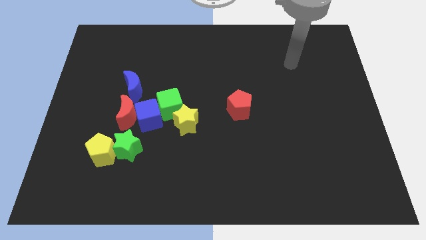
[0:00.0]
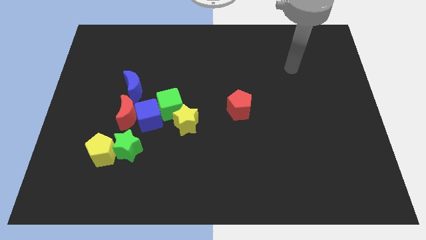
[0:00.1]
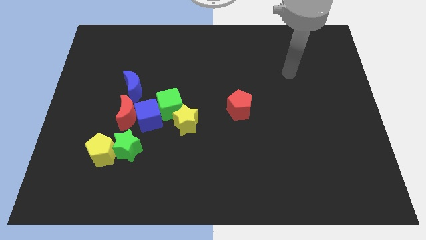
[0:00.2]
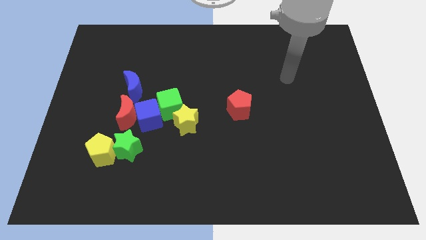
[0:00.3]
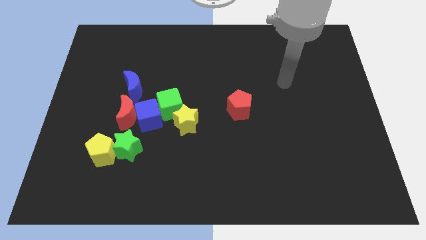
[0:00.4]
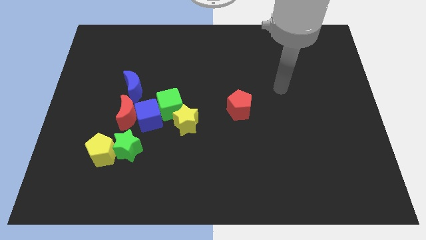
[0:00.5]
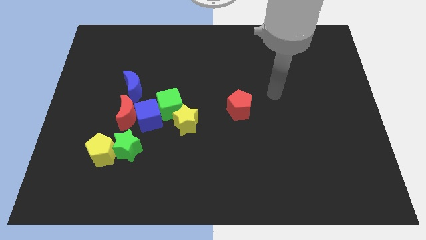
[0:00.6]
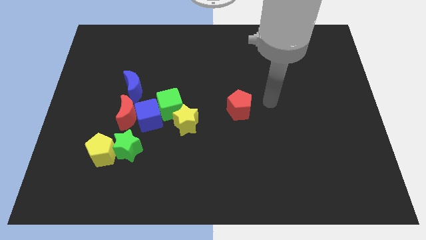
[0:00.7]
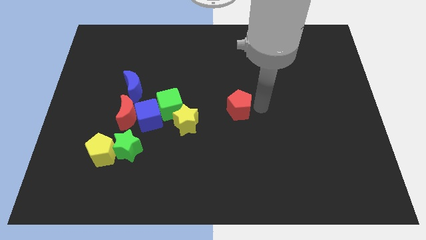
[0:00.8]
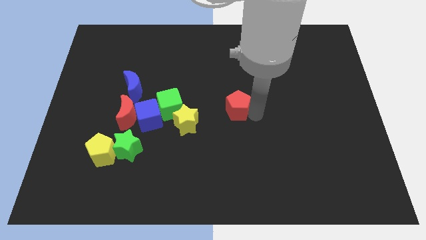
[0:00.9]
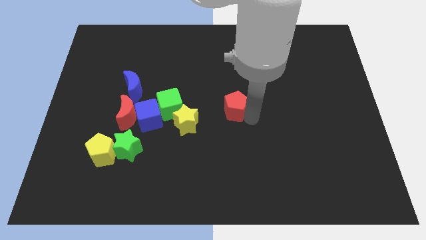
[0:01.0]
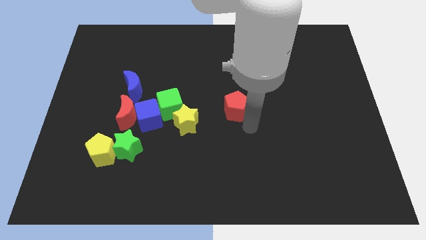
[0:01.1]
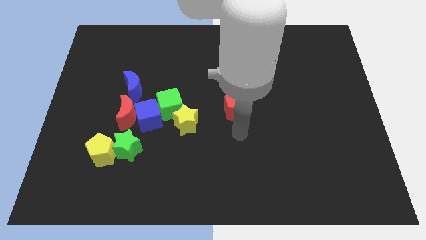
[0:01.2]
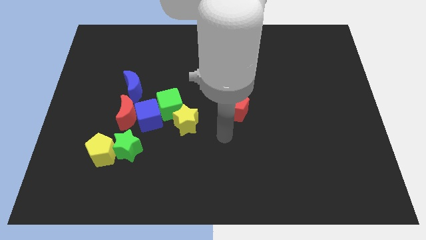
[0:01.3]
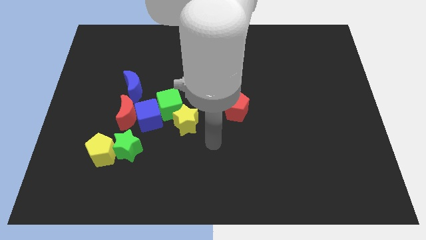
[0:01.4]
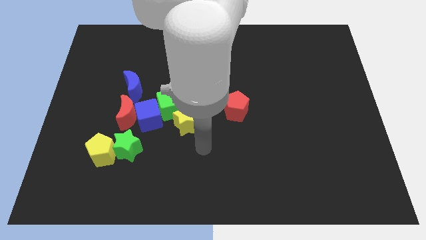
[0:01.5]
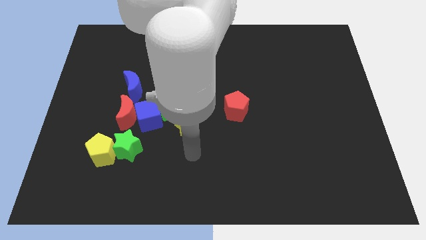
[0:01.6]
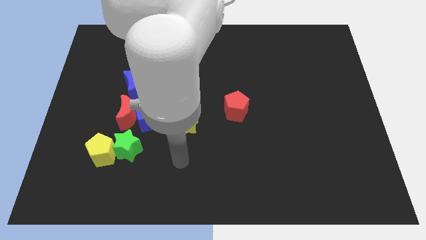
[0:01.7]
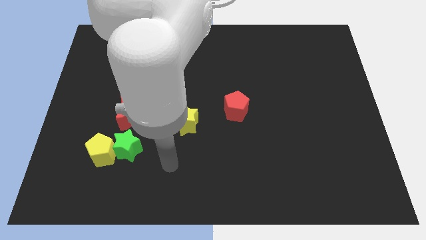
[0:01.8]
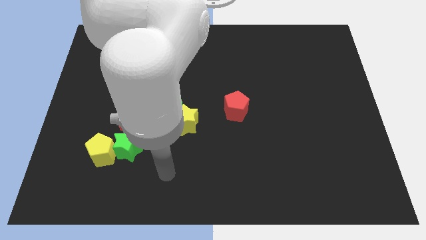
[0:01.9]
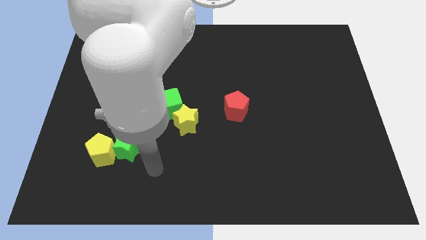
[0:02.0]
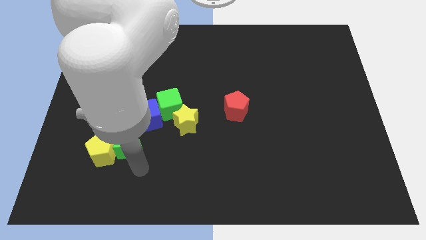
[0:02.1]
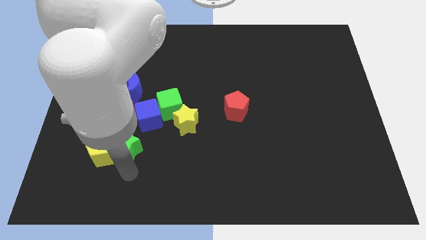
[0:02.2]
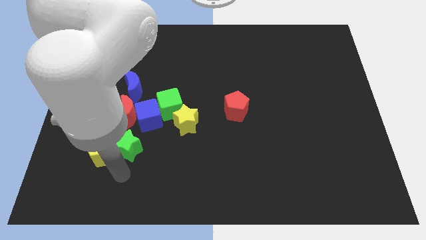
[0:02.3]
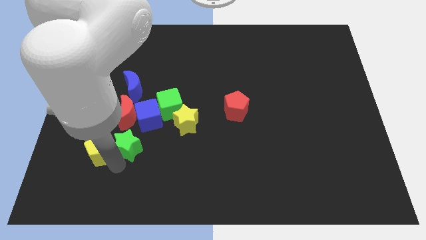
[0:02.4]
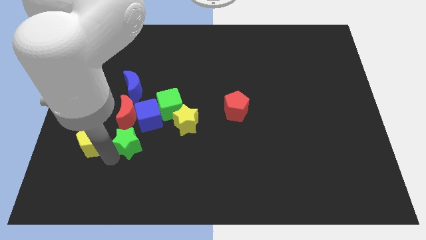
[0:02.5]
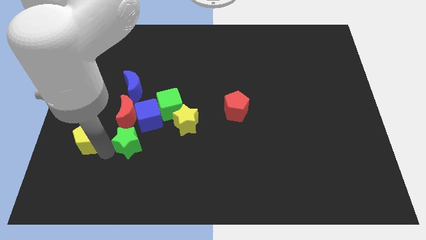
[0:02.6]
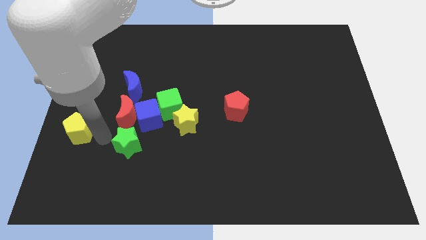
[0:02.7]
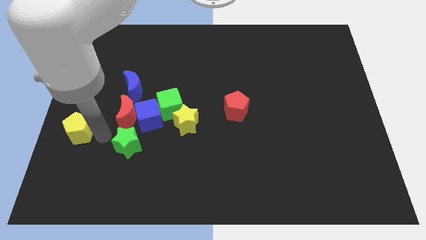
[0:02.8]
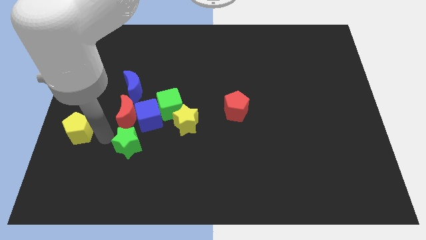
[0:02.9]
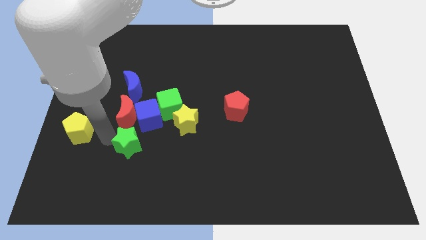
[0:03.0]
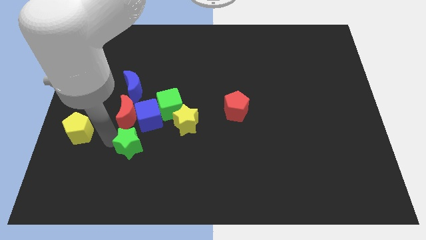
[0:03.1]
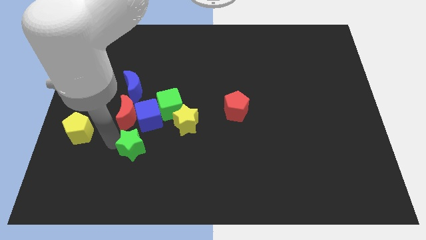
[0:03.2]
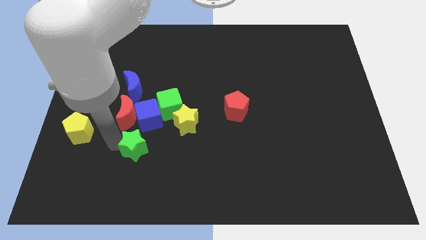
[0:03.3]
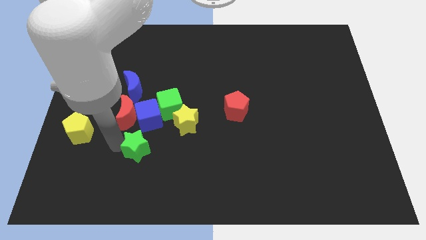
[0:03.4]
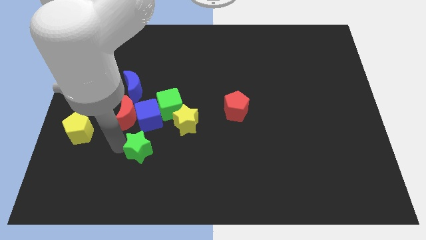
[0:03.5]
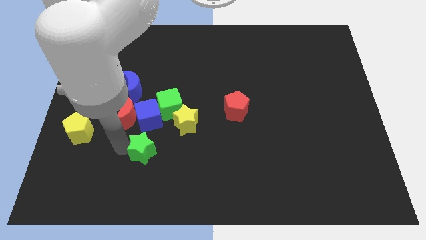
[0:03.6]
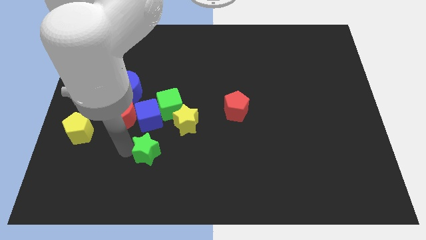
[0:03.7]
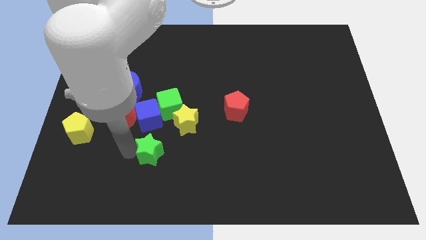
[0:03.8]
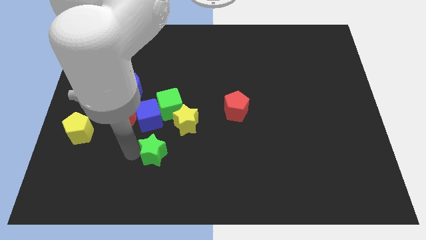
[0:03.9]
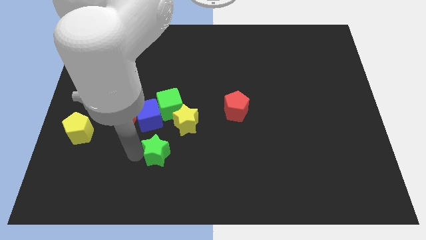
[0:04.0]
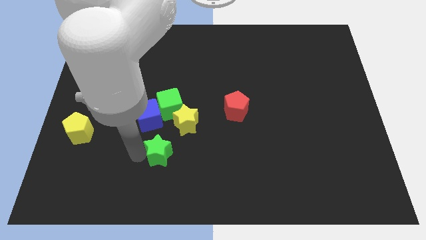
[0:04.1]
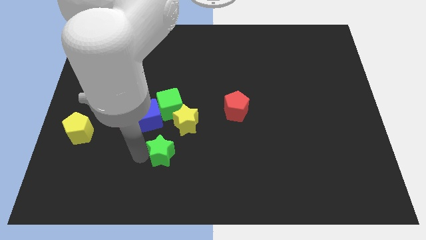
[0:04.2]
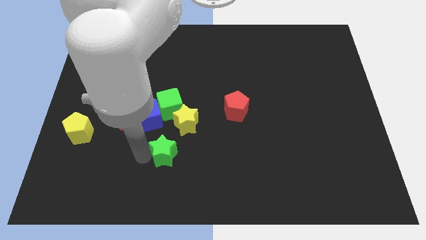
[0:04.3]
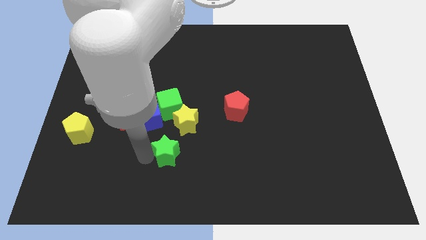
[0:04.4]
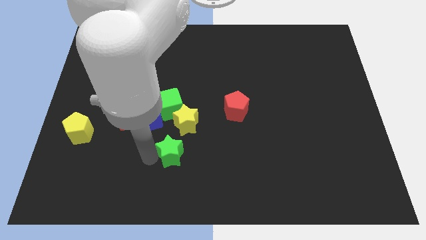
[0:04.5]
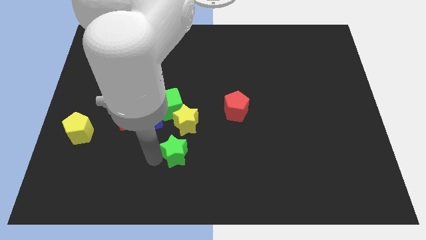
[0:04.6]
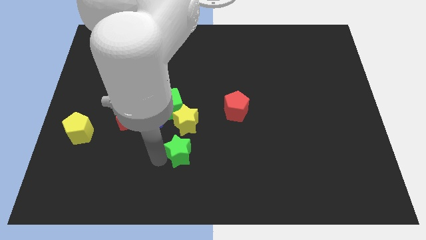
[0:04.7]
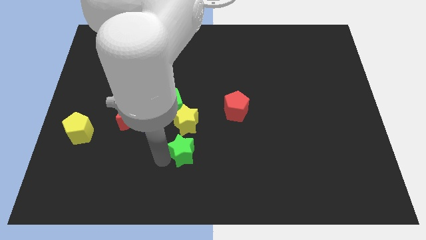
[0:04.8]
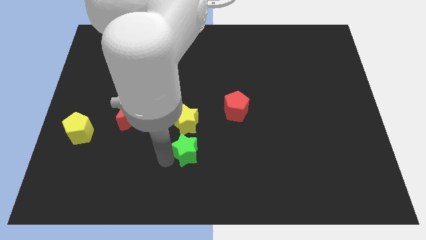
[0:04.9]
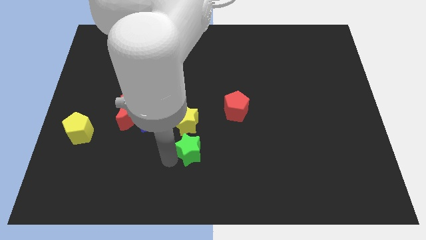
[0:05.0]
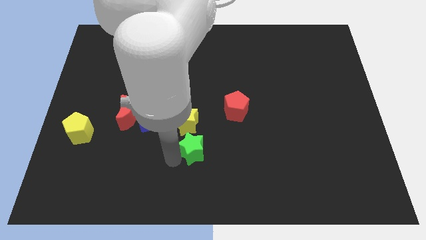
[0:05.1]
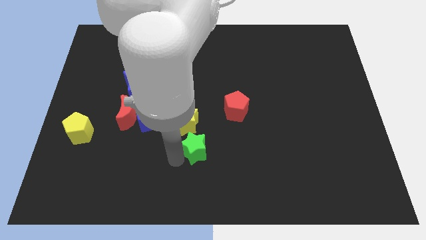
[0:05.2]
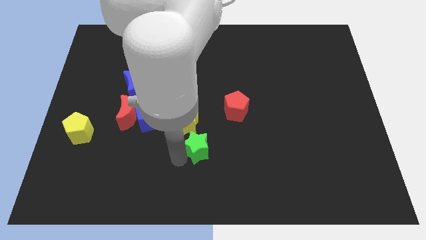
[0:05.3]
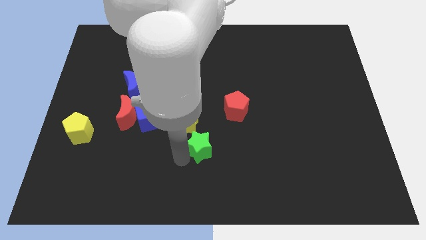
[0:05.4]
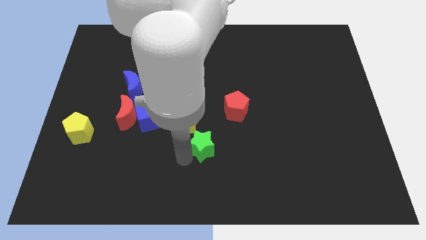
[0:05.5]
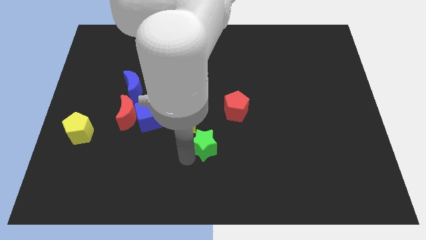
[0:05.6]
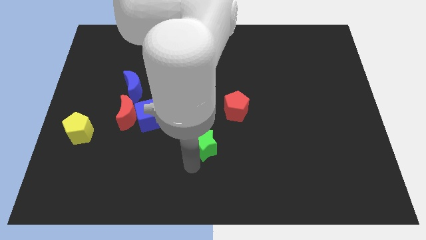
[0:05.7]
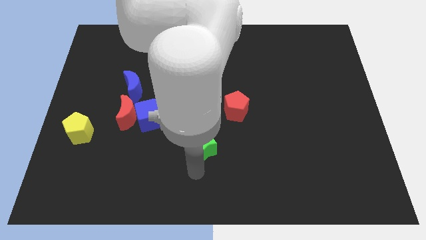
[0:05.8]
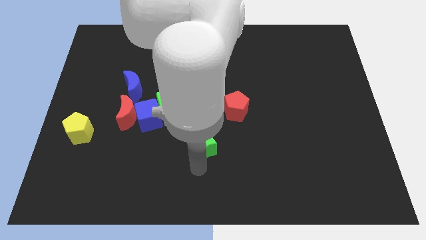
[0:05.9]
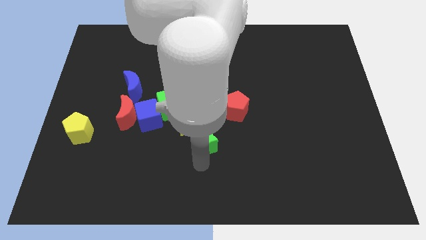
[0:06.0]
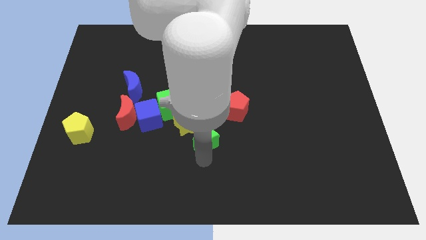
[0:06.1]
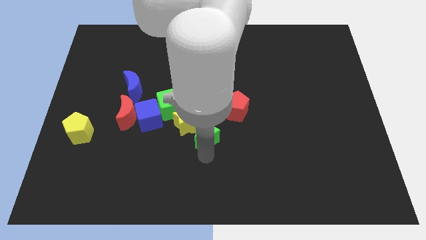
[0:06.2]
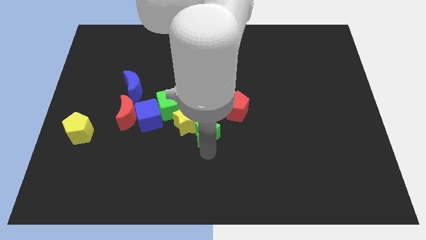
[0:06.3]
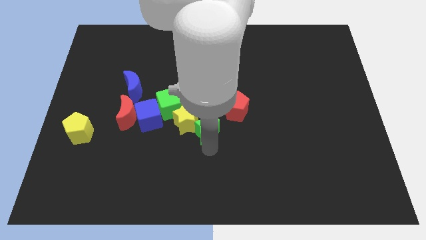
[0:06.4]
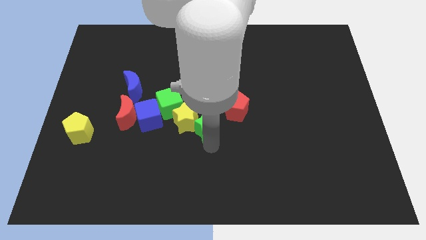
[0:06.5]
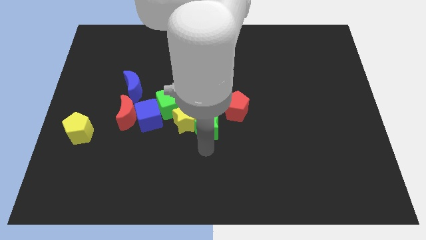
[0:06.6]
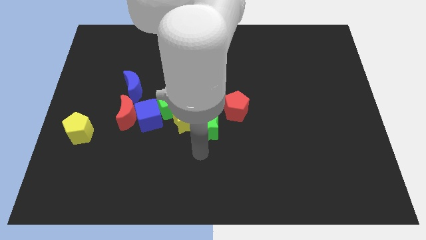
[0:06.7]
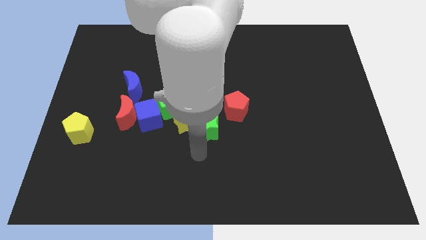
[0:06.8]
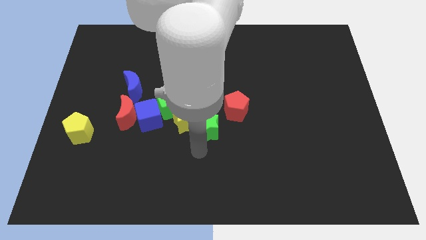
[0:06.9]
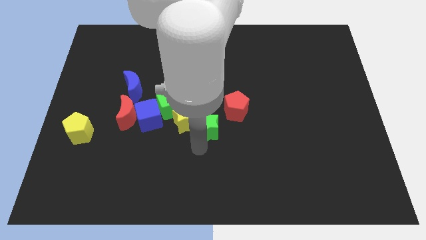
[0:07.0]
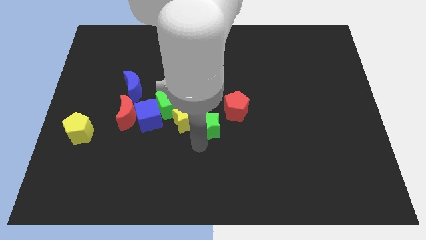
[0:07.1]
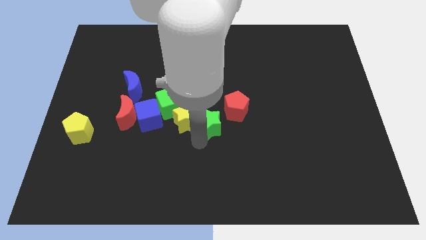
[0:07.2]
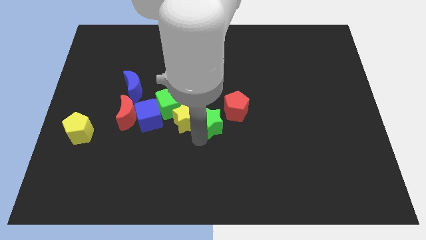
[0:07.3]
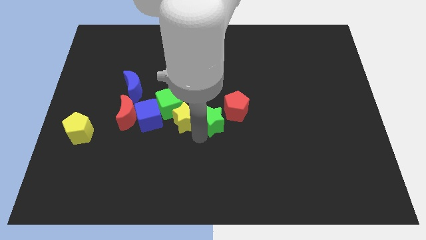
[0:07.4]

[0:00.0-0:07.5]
push the green star just right of the green cube
